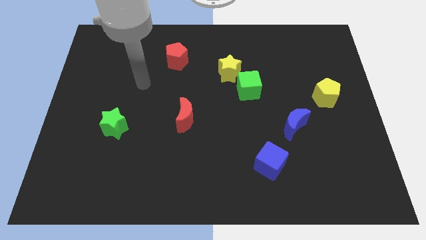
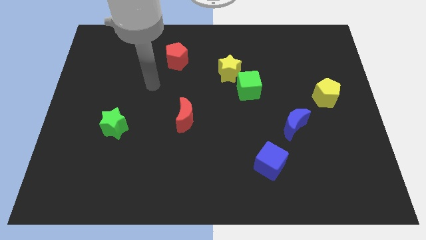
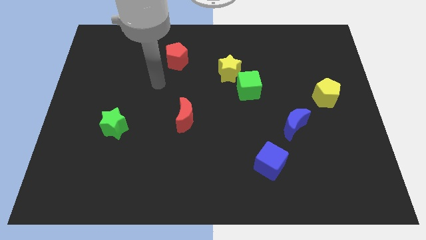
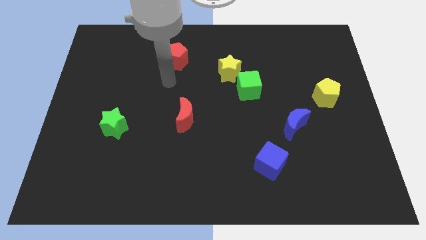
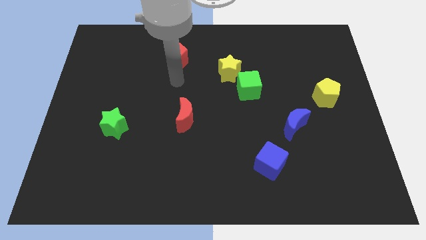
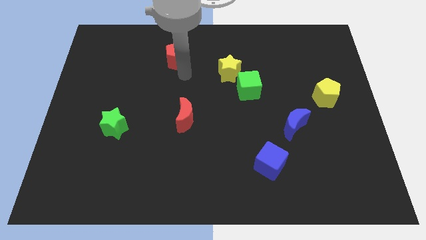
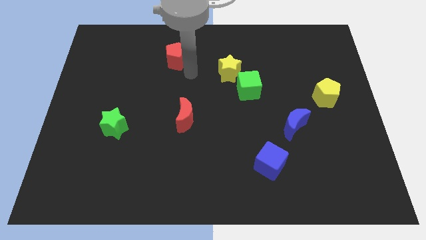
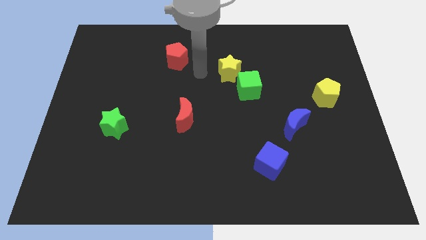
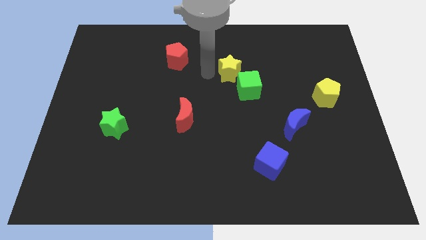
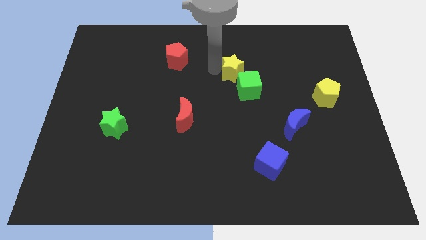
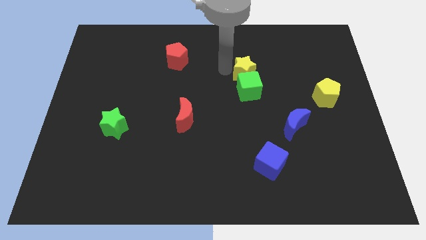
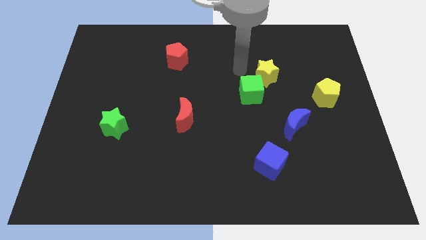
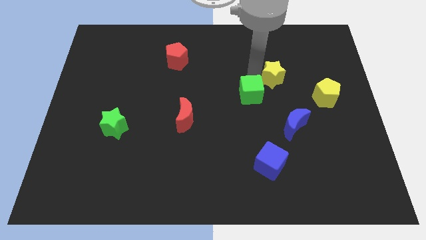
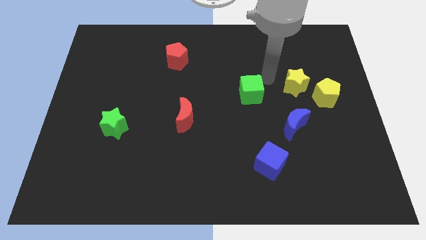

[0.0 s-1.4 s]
separate the green cube from the yellow star

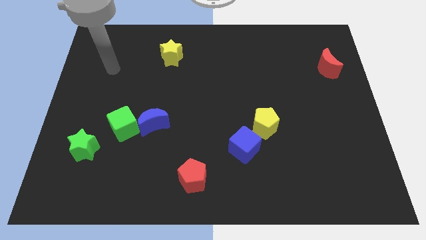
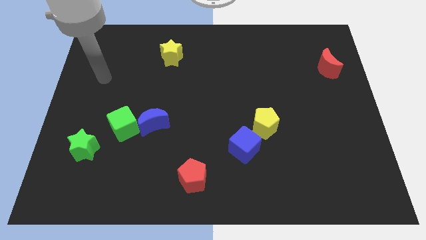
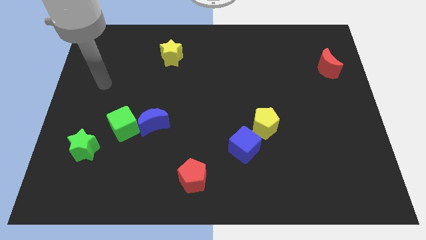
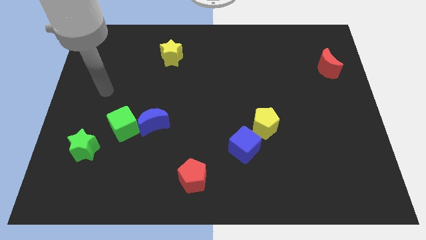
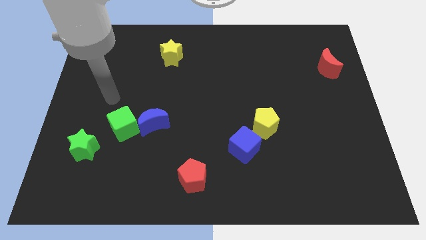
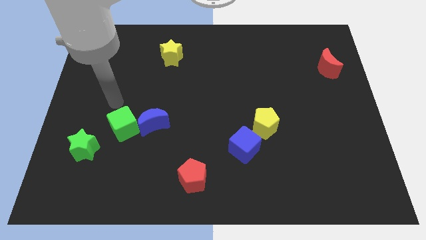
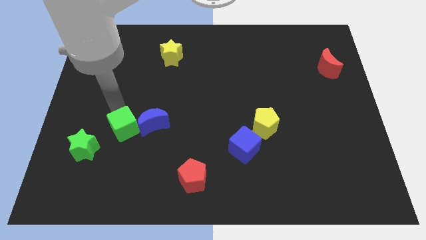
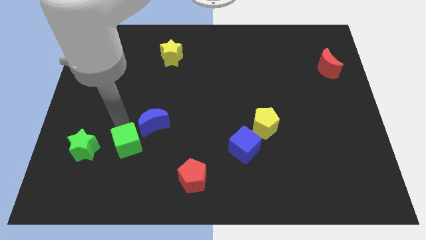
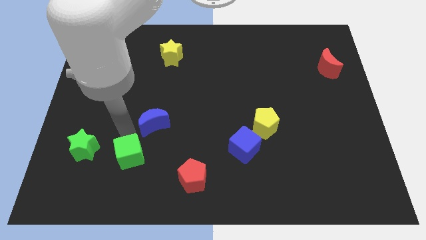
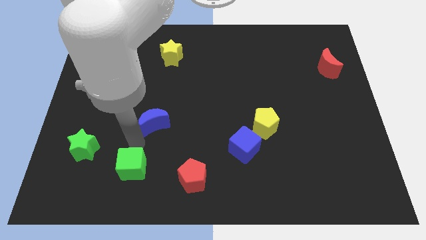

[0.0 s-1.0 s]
move the blue moon away from the green cube

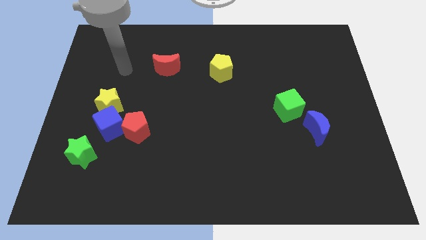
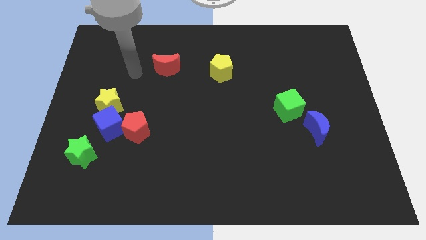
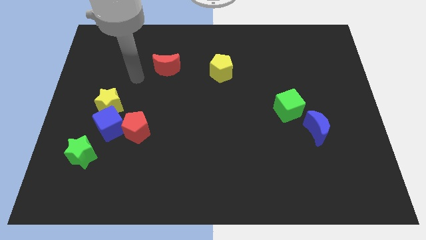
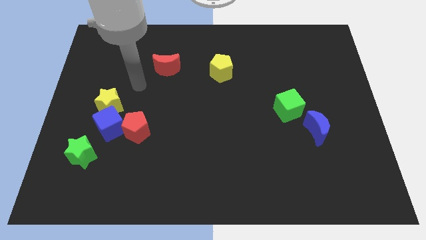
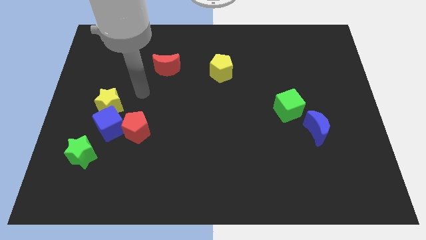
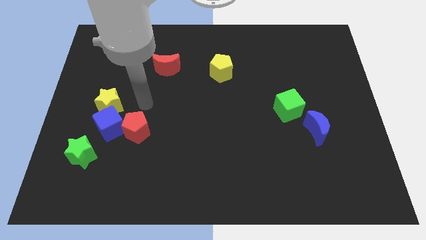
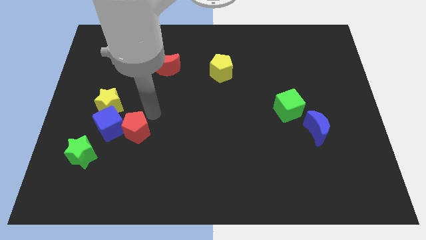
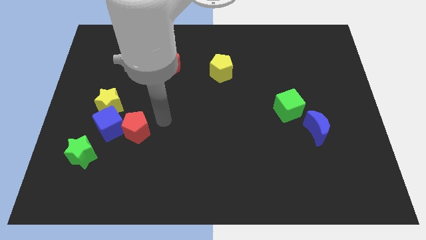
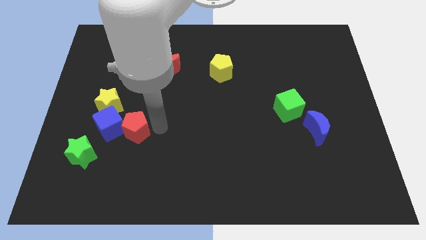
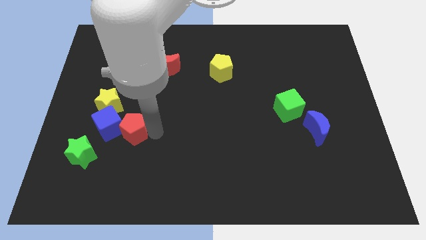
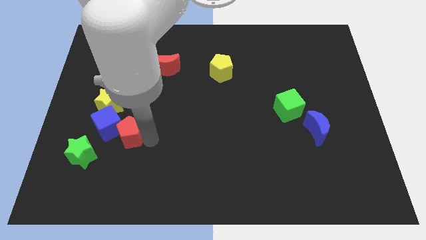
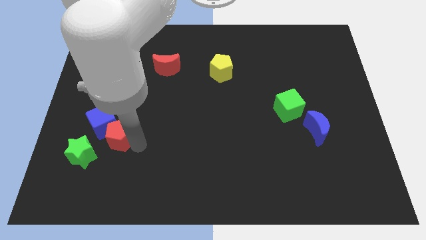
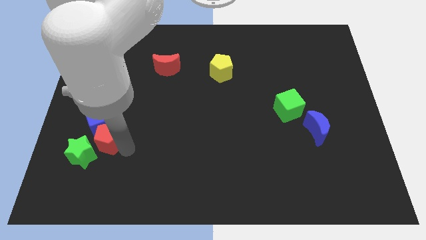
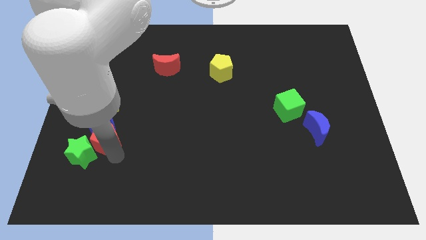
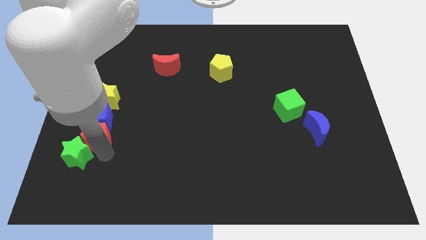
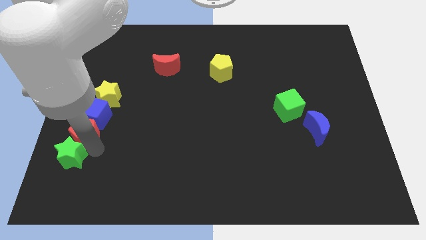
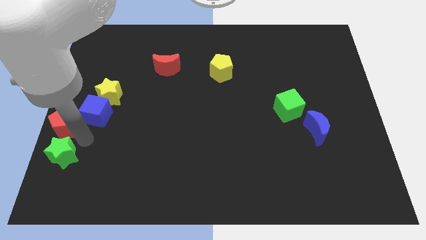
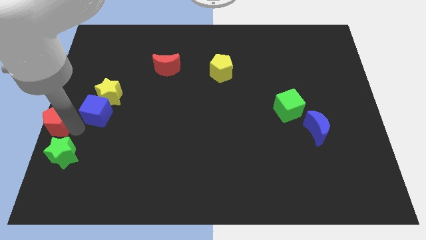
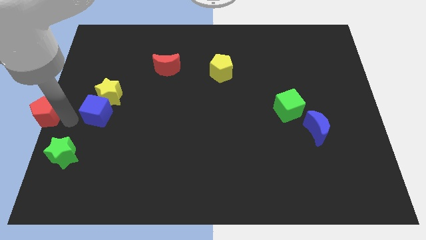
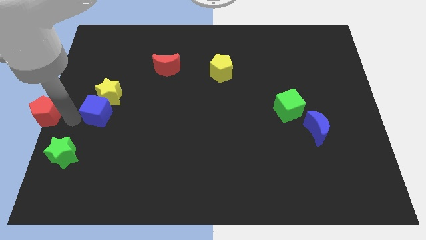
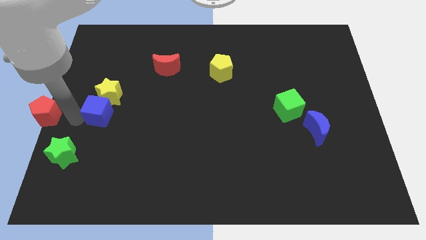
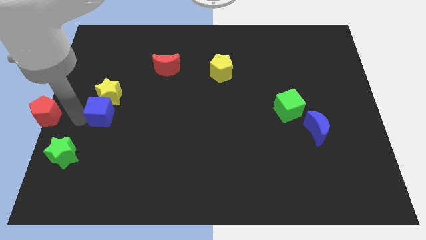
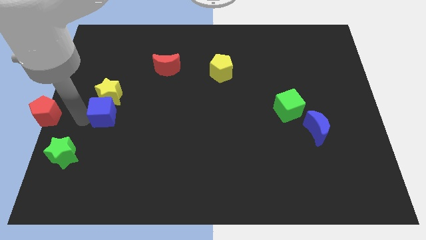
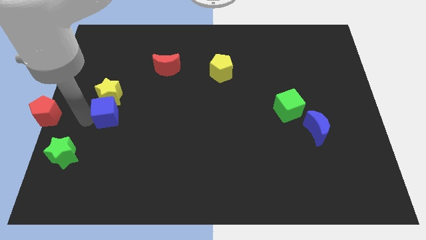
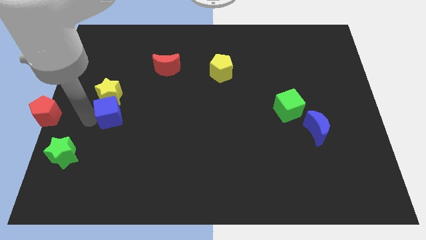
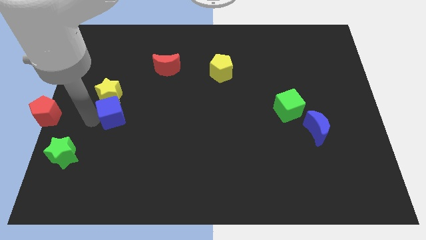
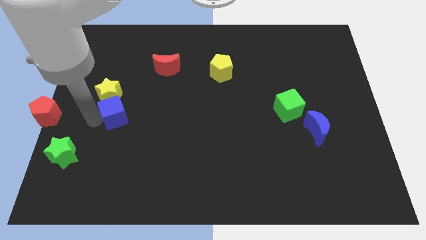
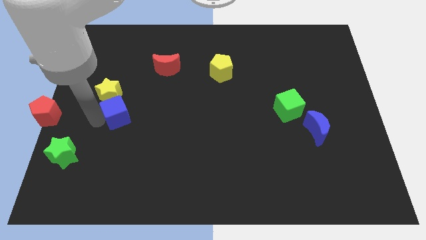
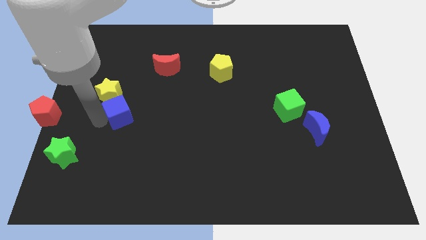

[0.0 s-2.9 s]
pull the blue cube apart from the clump

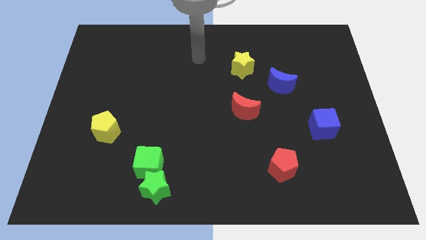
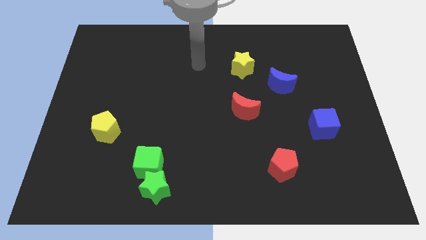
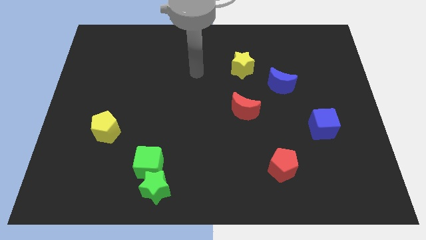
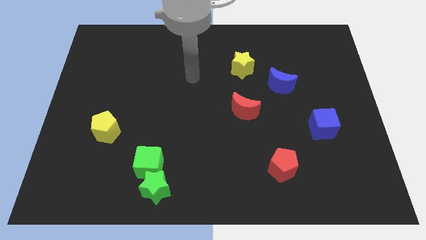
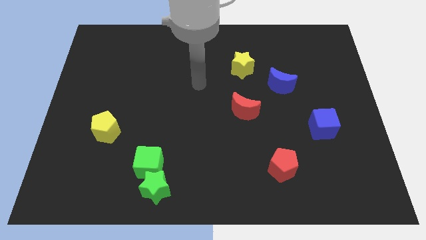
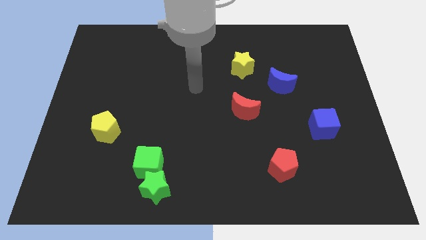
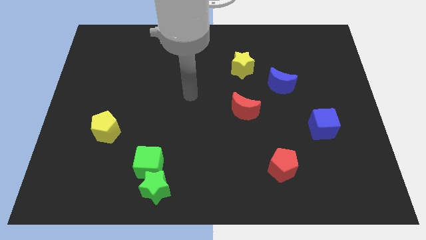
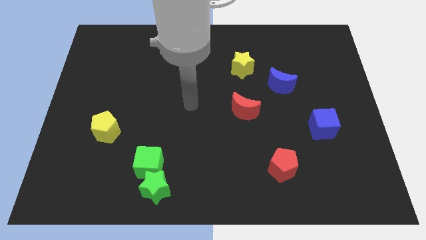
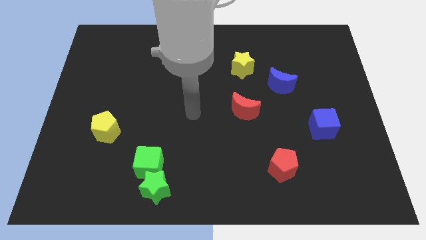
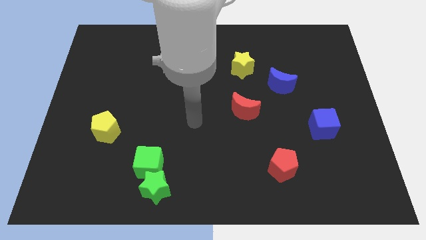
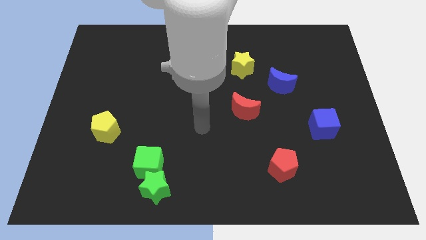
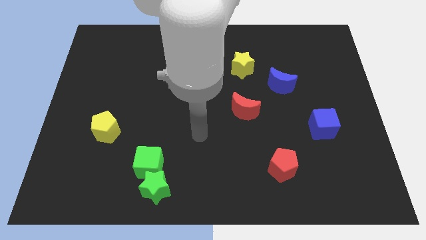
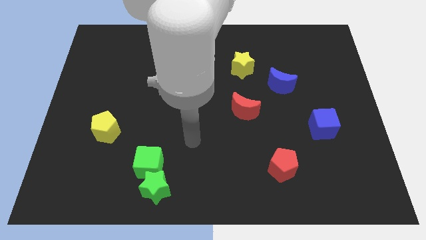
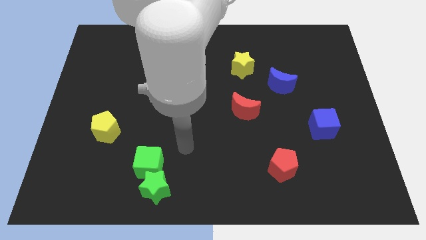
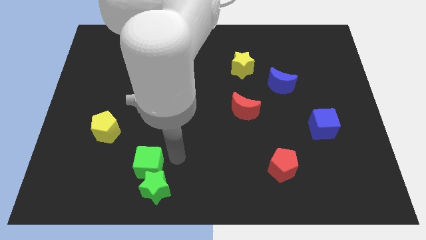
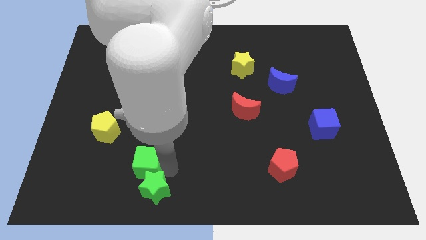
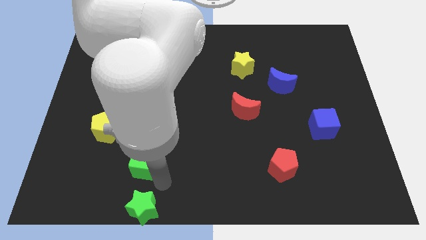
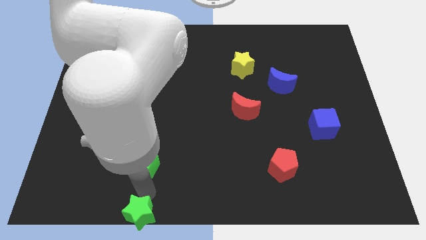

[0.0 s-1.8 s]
separate the green cube from the green star

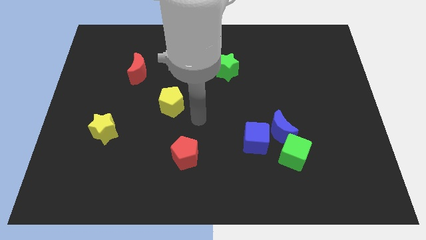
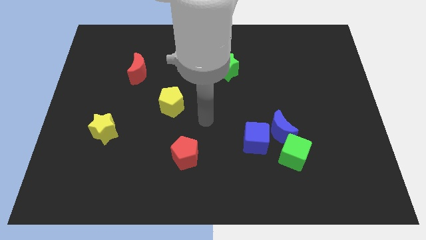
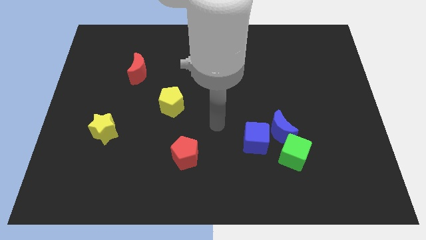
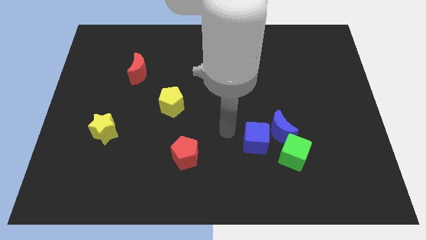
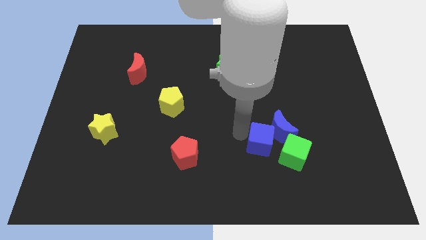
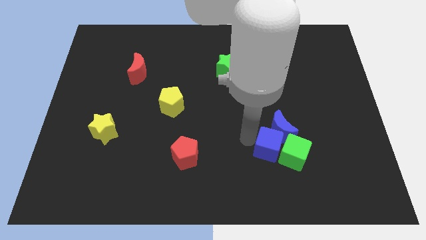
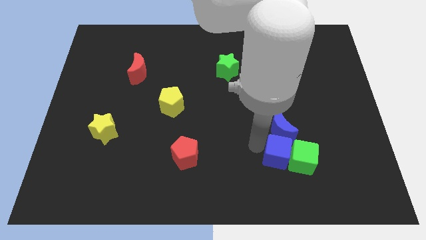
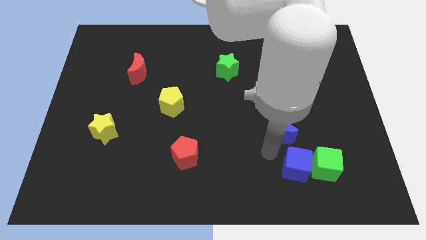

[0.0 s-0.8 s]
move the blue moon away from the blue cube and green cube

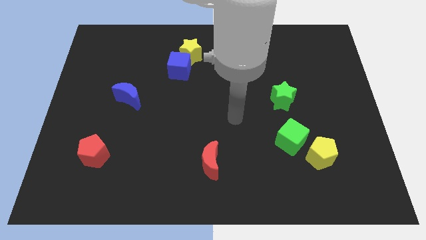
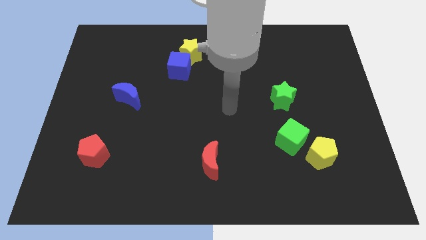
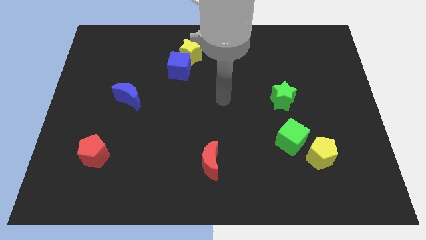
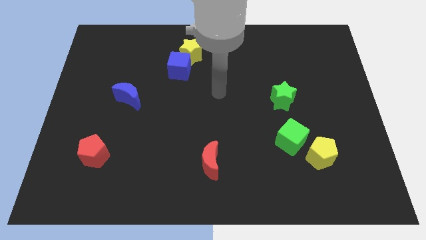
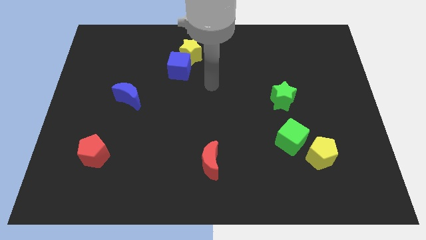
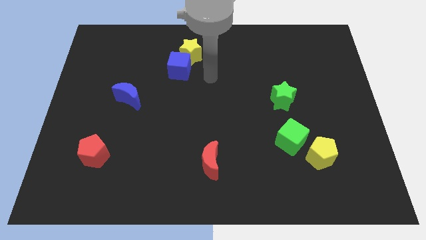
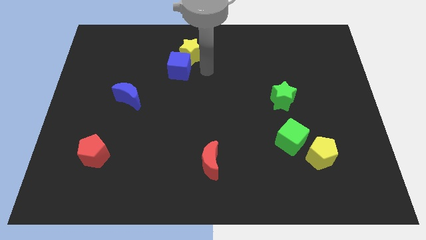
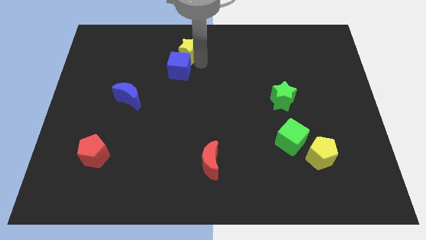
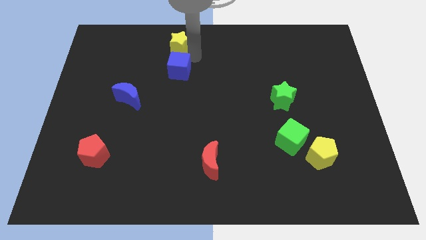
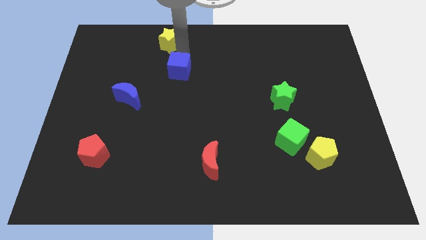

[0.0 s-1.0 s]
move the blue cube away from the yellow star

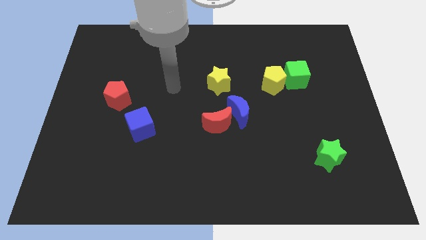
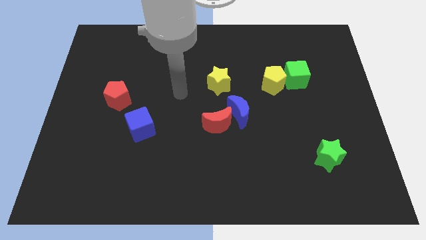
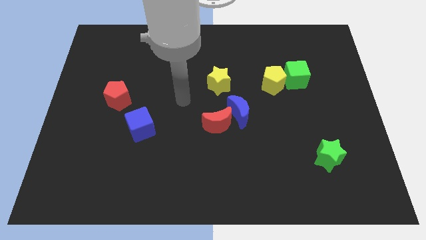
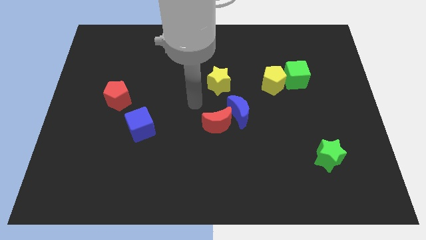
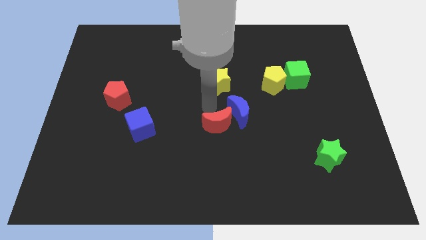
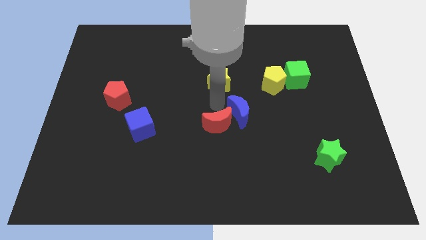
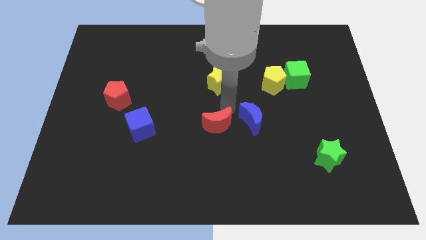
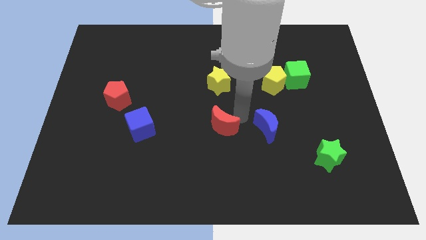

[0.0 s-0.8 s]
pull the red moon apart from the blue moon
